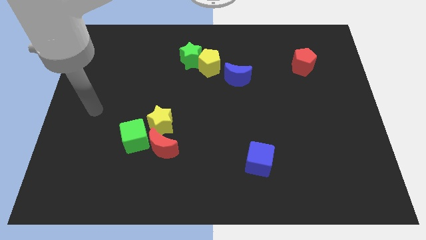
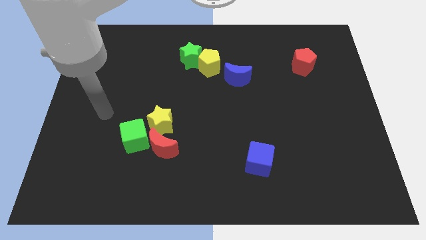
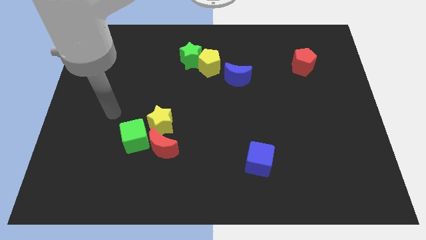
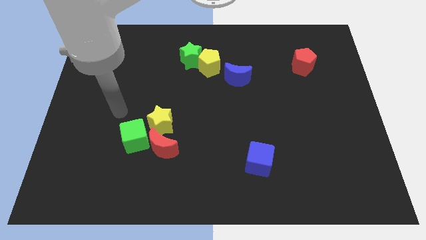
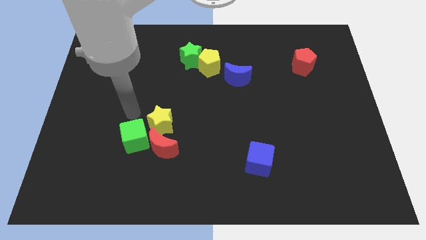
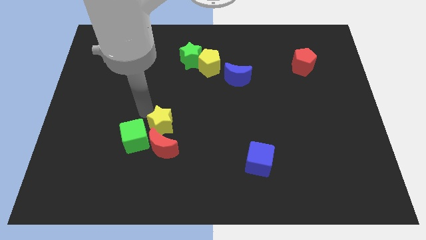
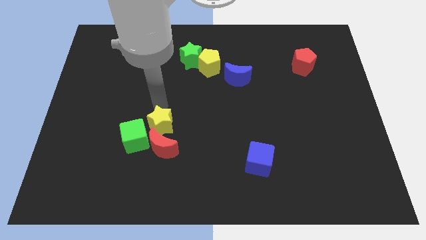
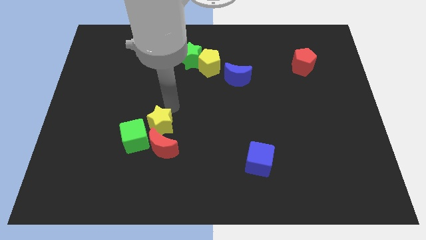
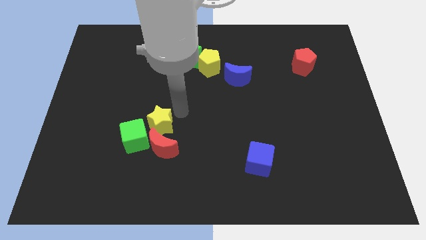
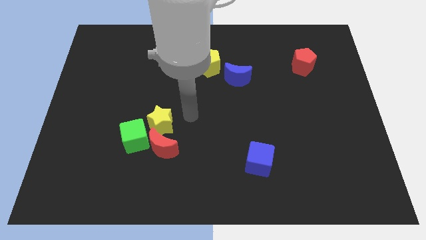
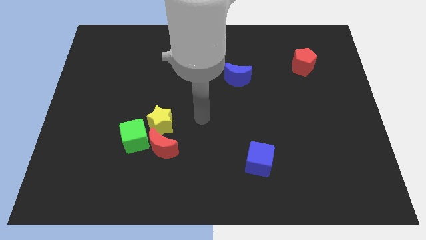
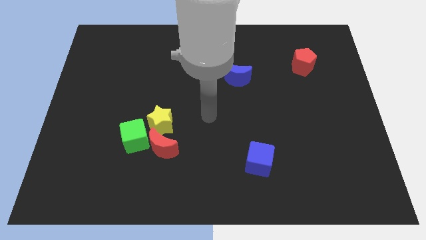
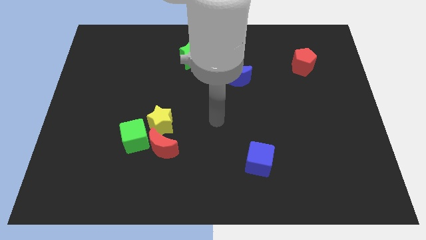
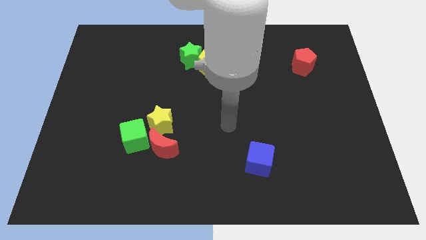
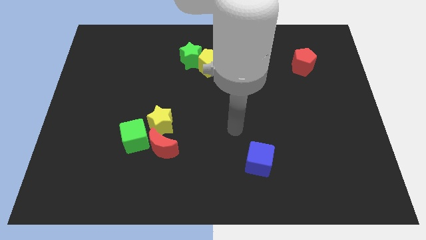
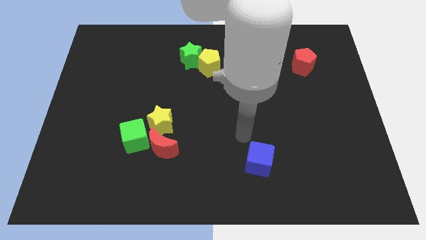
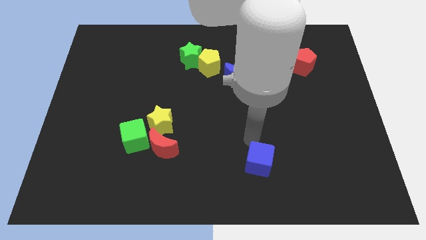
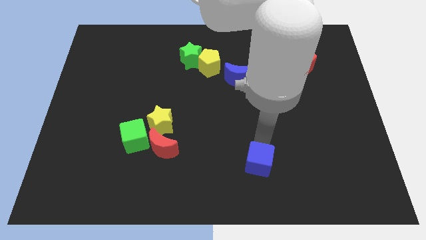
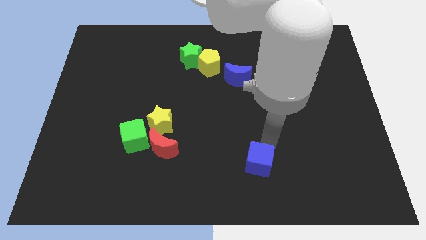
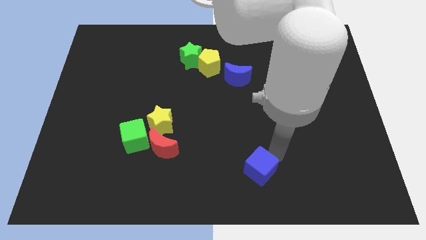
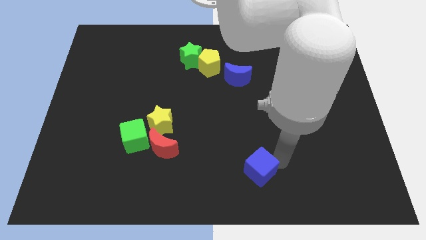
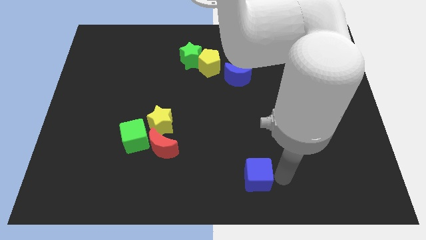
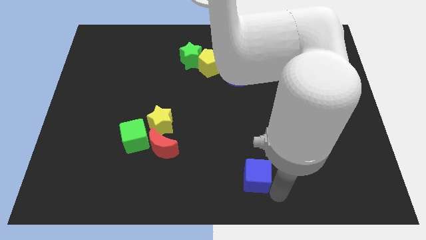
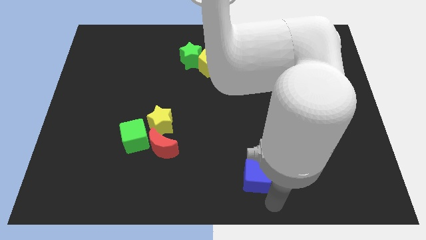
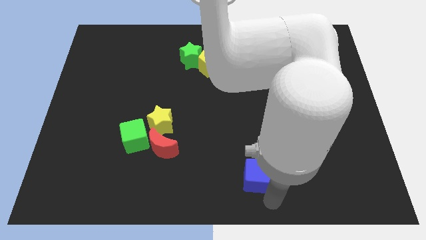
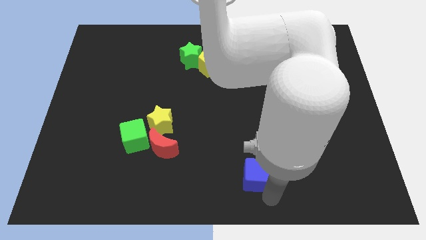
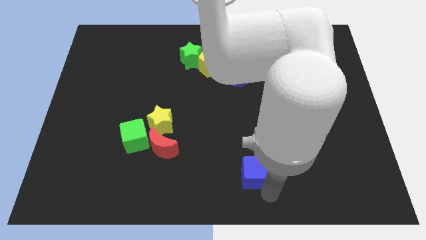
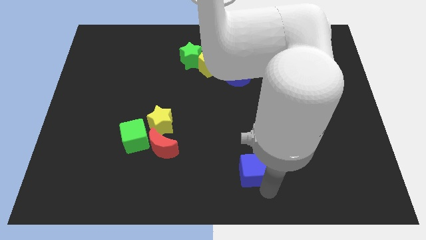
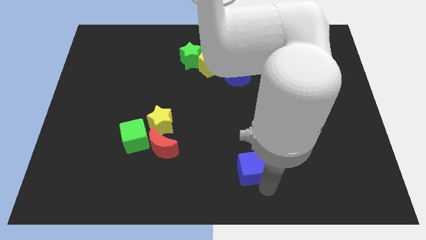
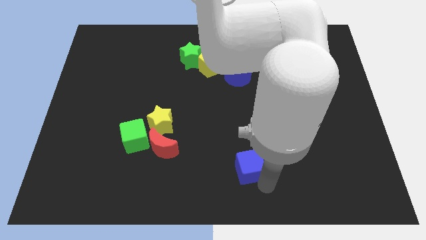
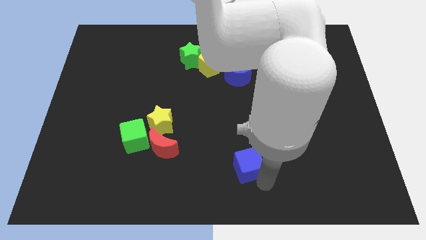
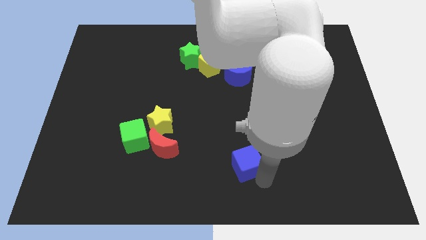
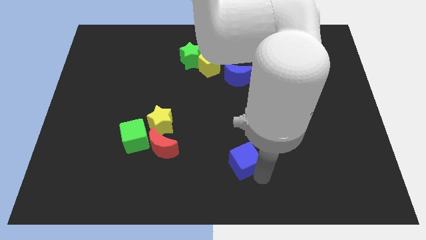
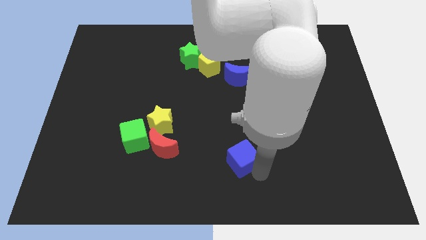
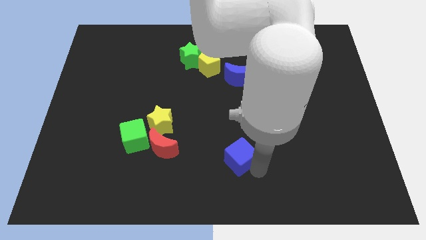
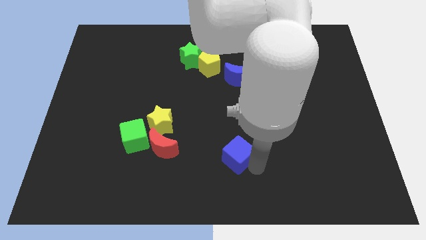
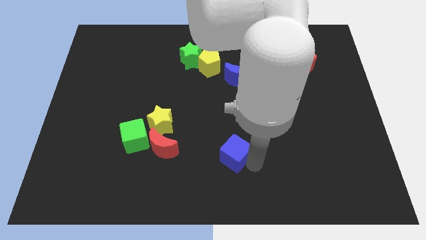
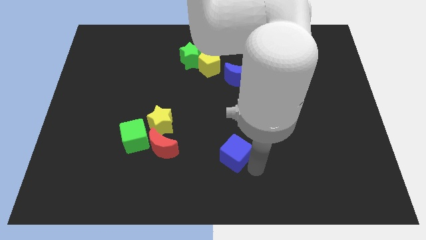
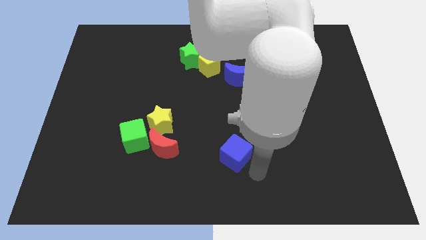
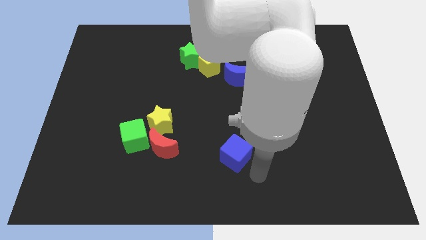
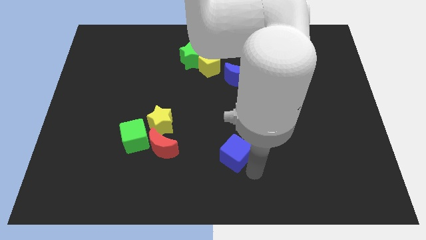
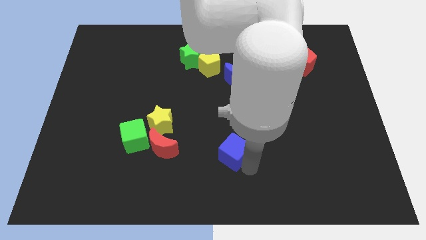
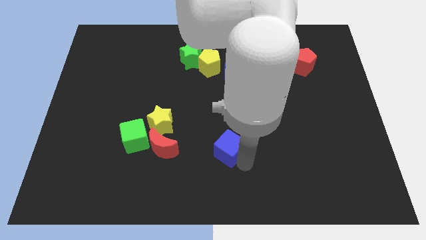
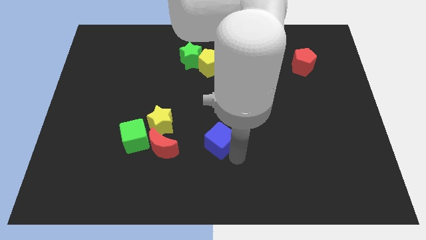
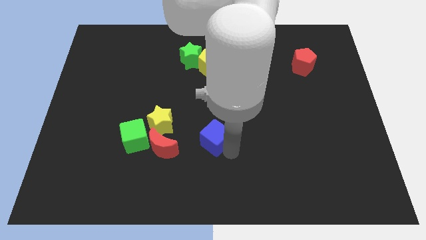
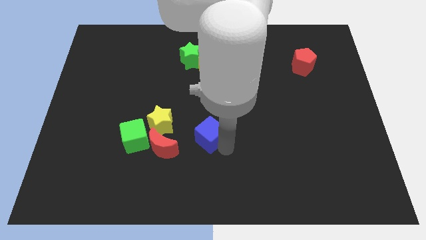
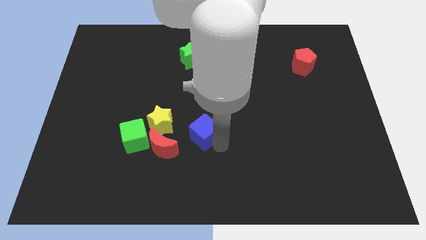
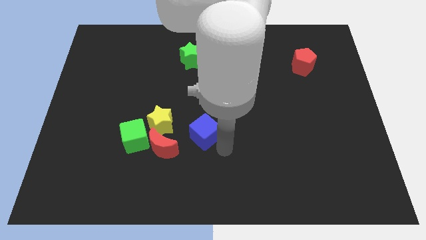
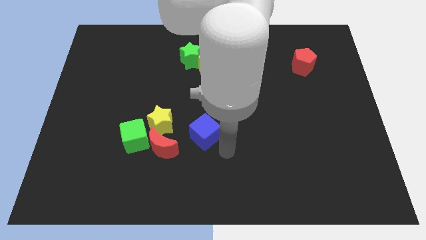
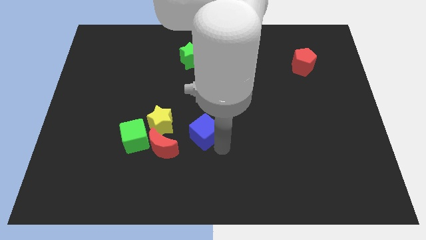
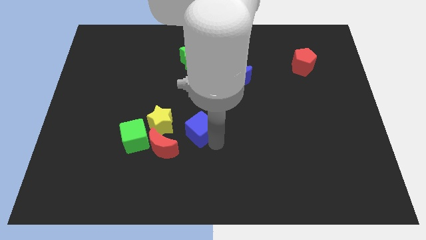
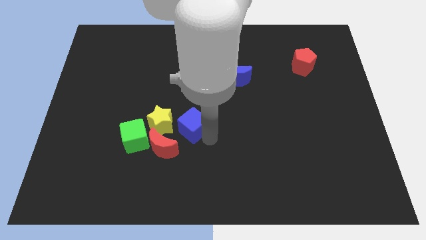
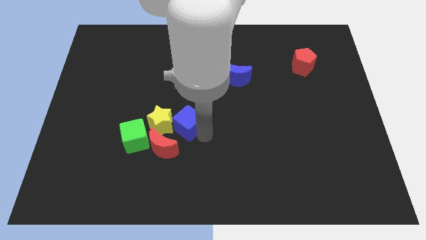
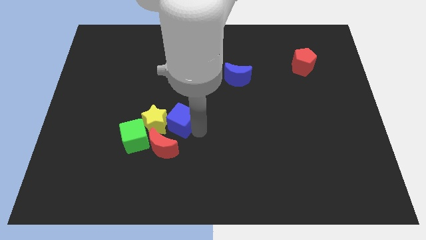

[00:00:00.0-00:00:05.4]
push the blue cube to the top right of the green cube

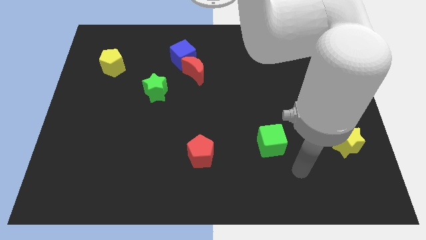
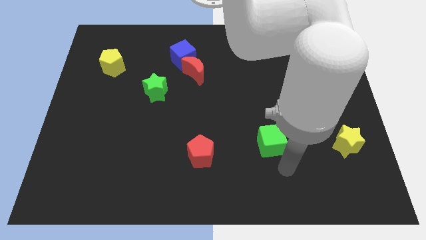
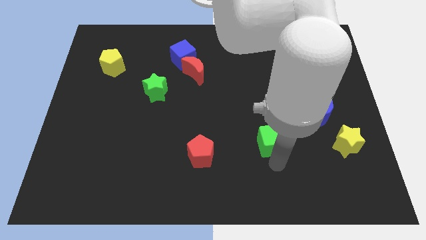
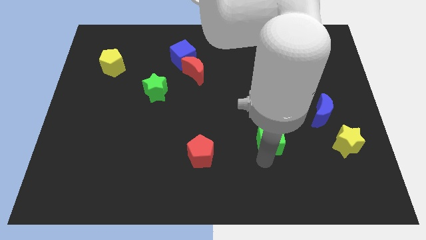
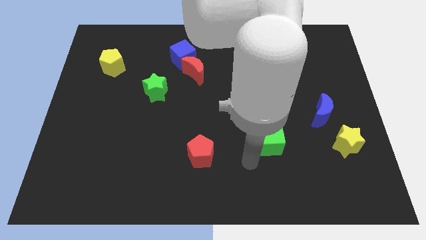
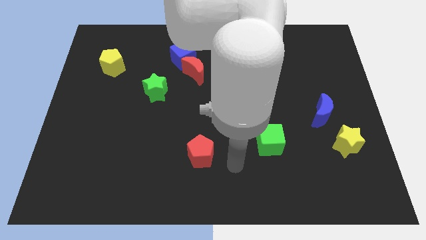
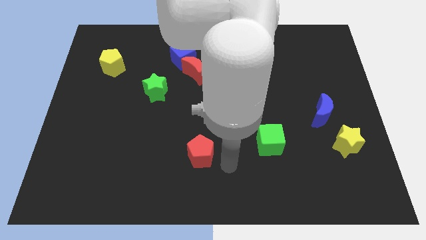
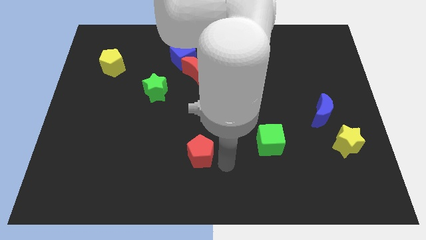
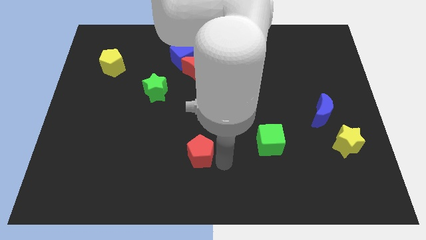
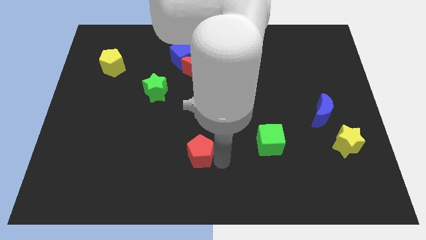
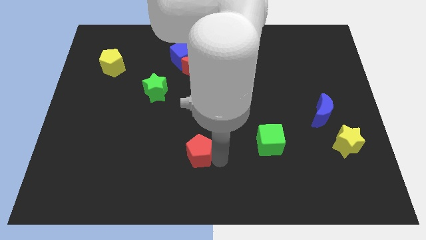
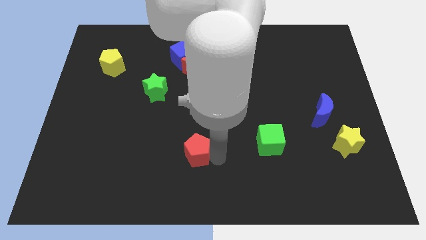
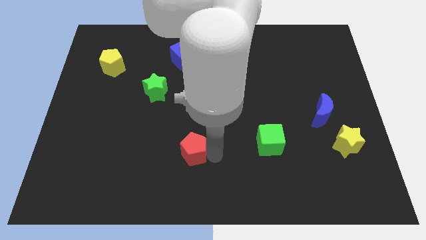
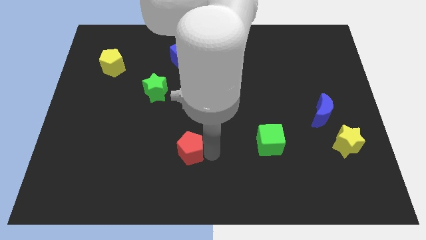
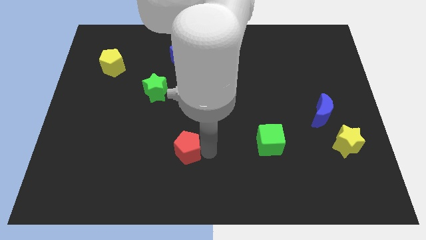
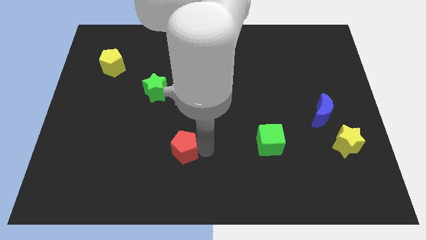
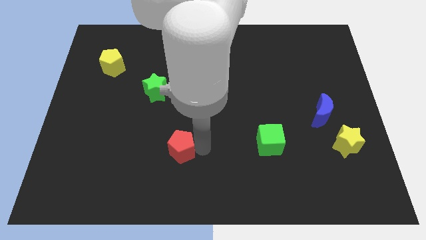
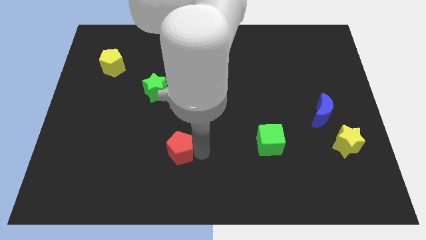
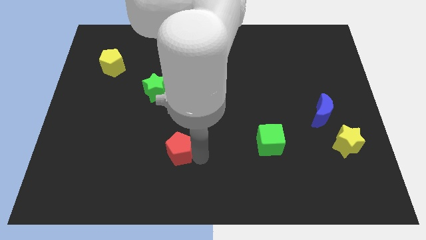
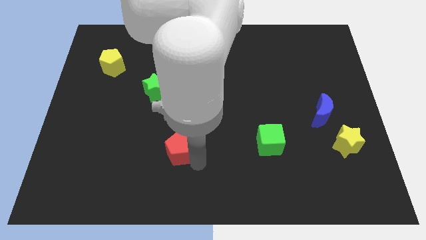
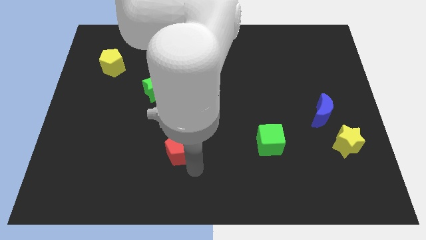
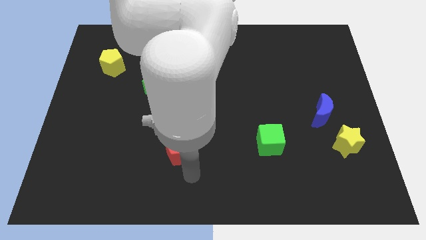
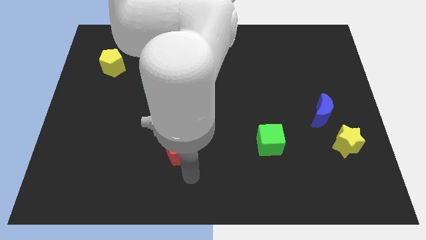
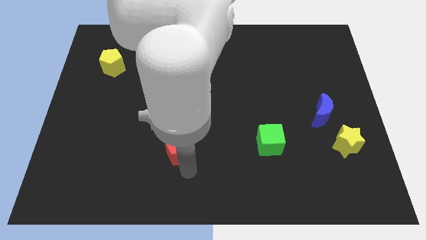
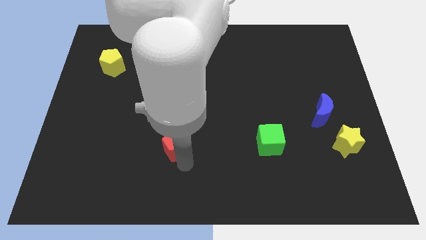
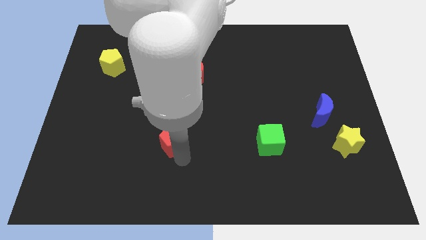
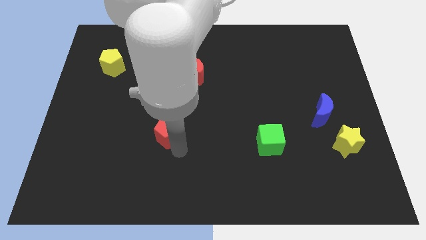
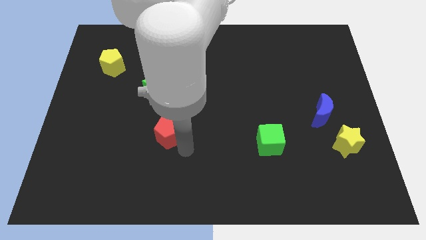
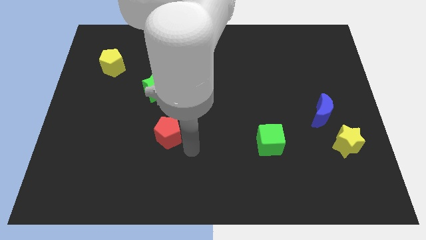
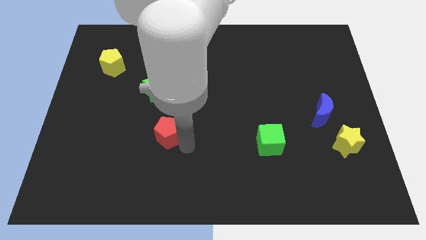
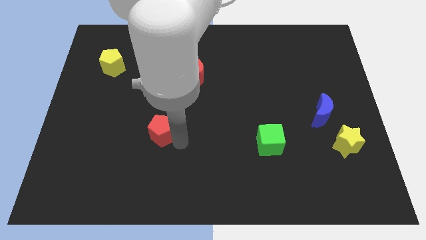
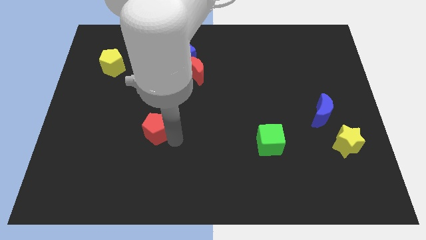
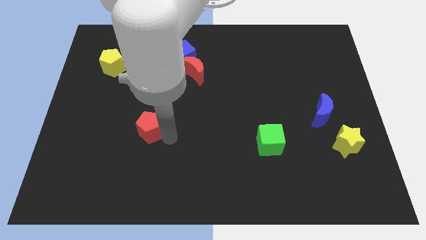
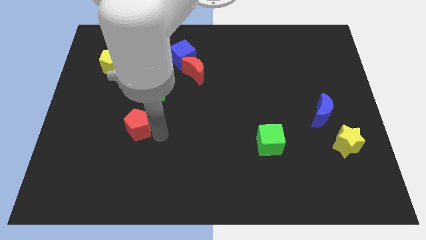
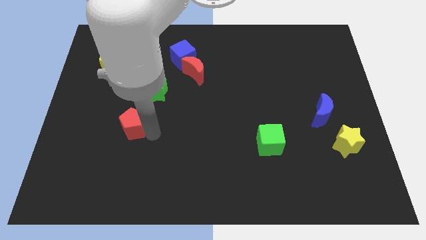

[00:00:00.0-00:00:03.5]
slide the red pentagon to the bottom left of the green star
